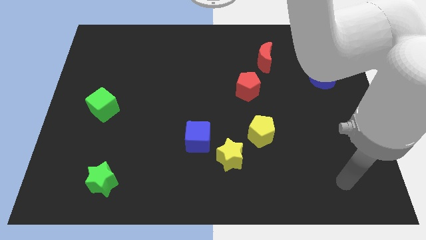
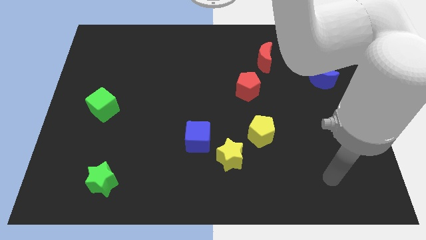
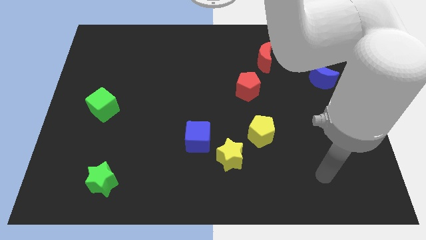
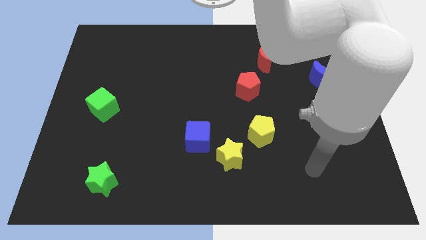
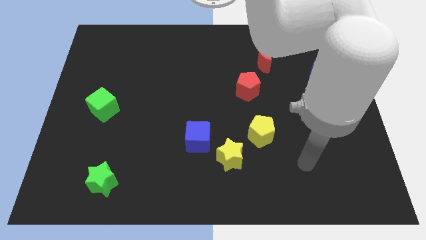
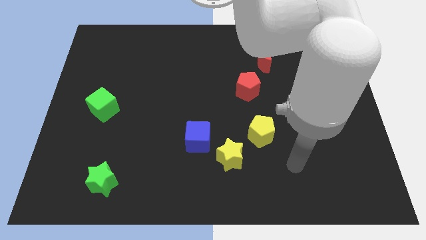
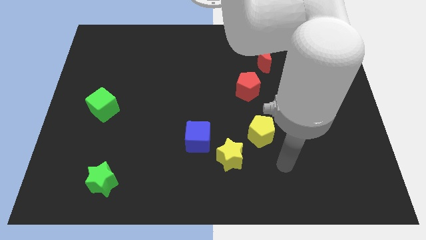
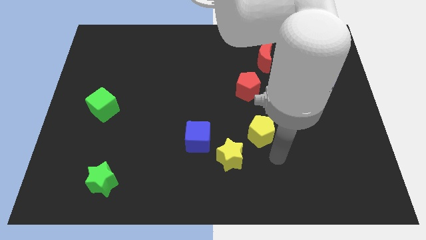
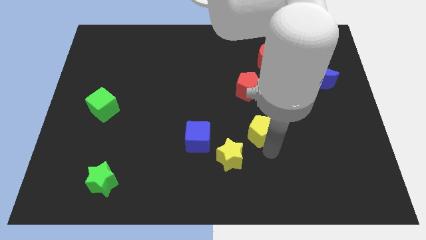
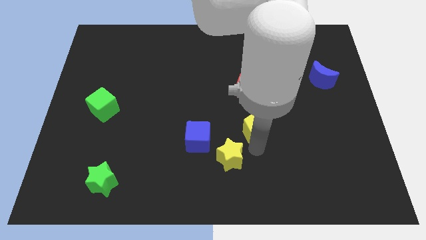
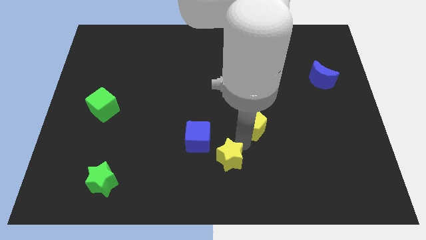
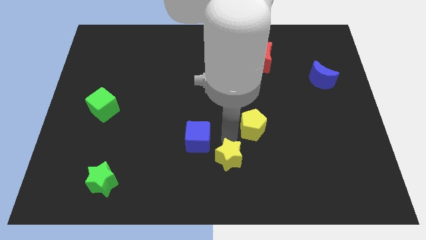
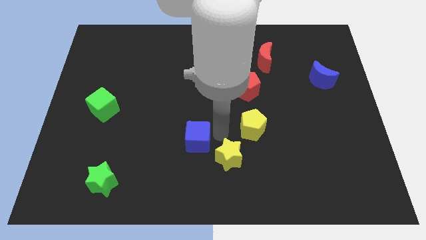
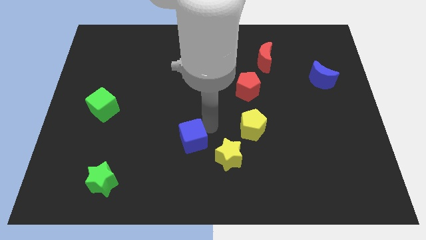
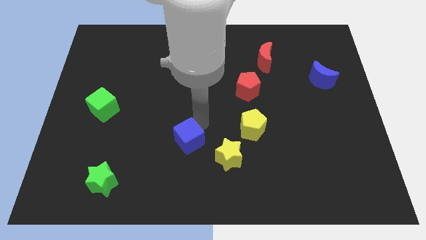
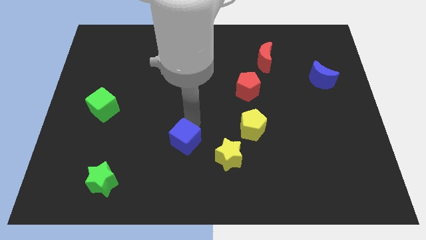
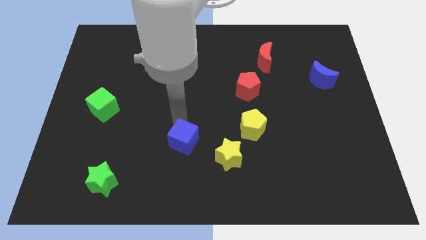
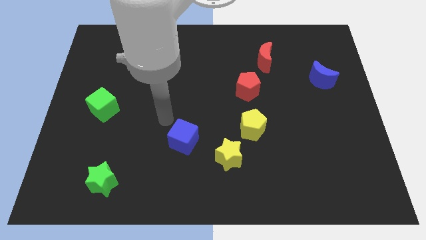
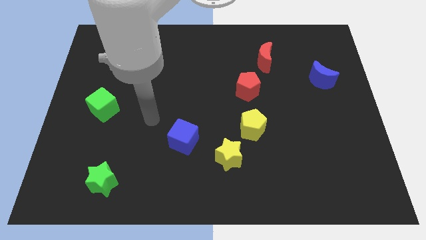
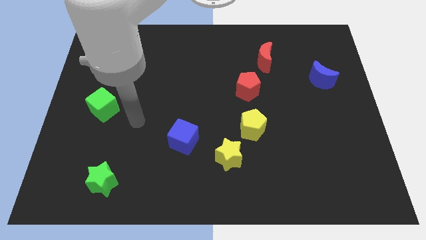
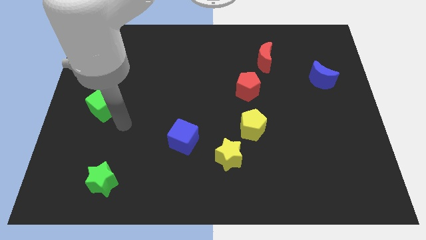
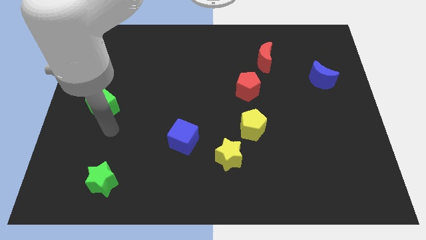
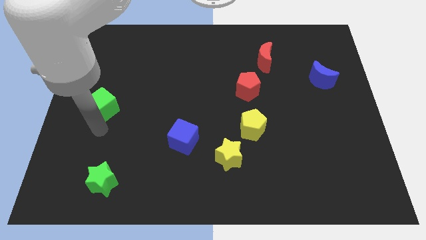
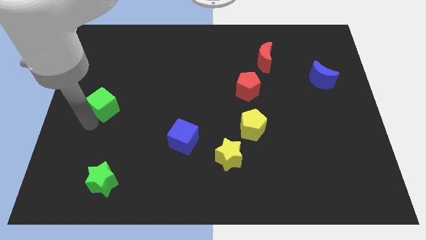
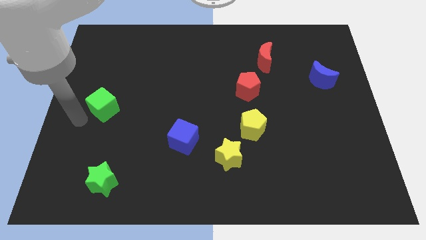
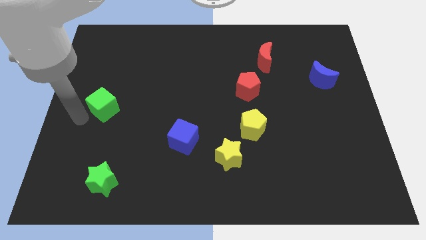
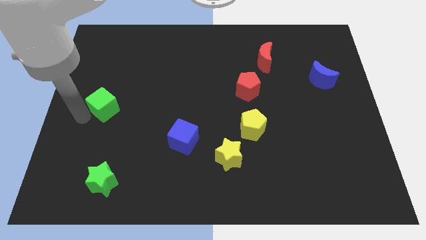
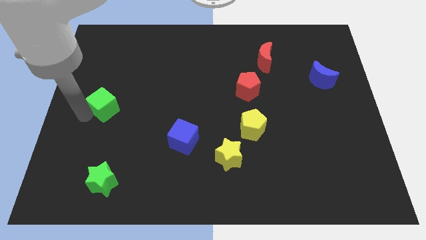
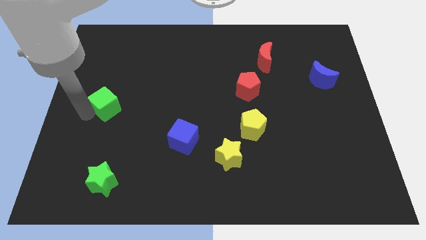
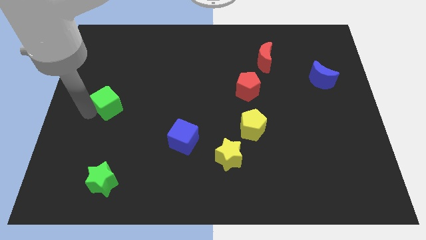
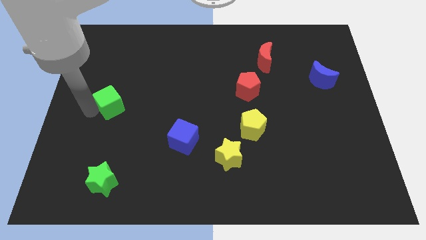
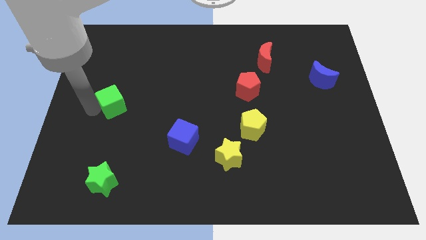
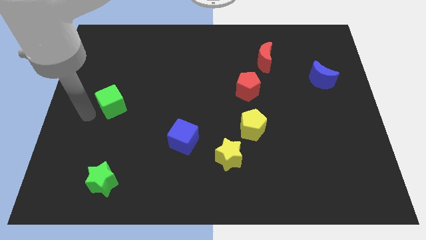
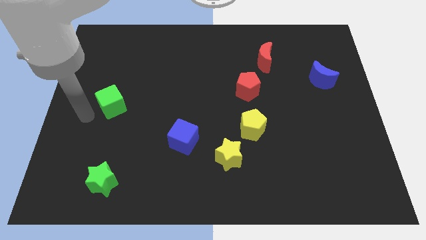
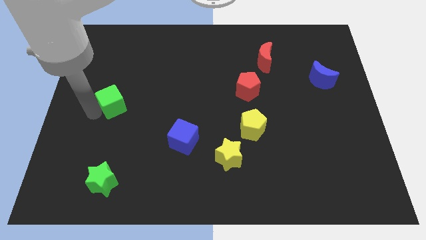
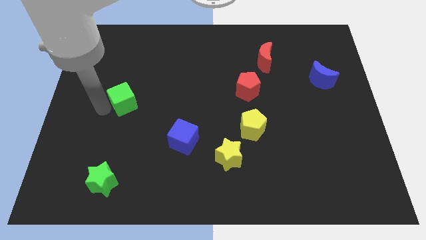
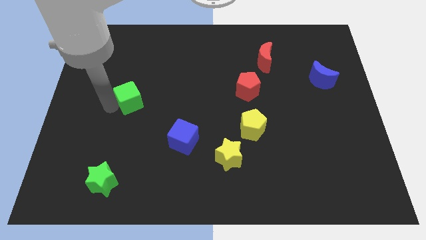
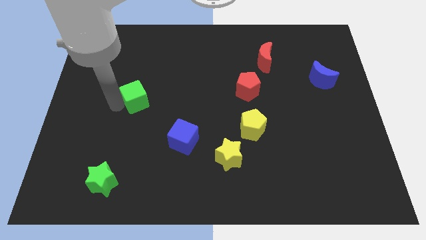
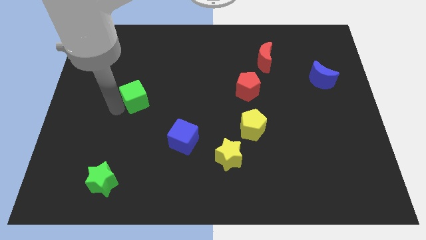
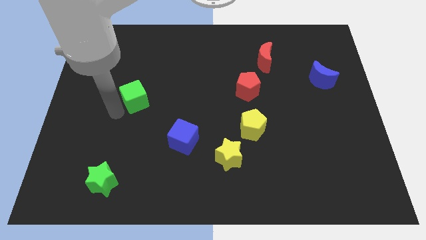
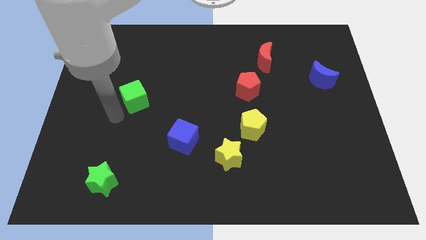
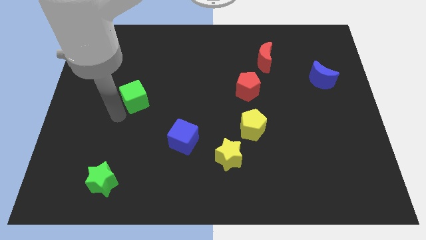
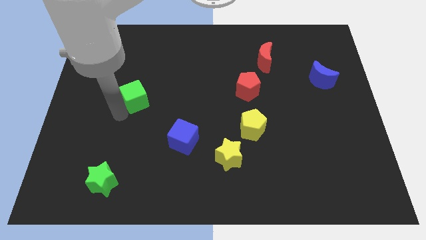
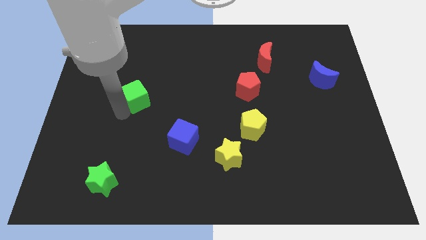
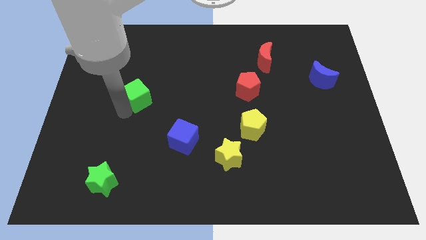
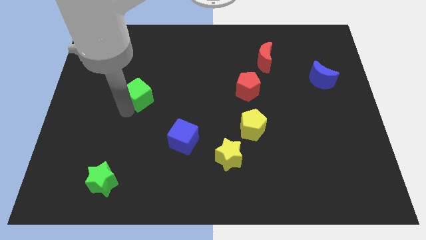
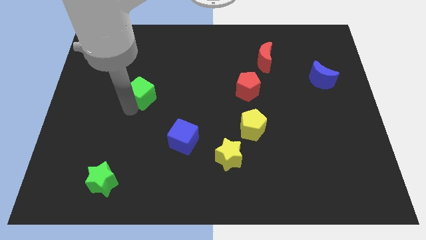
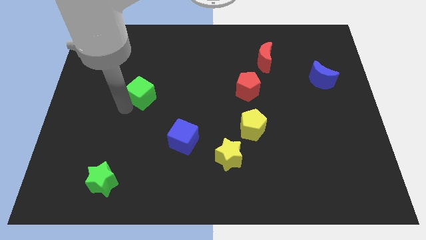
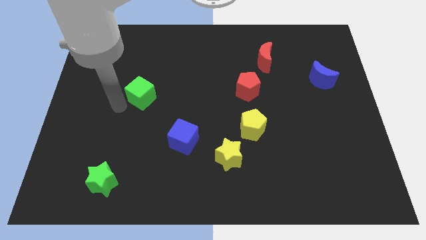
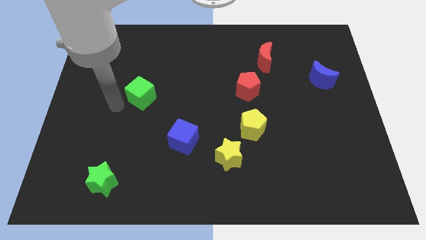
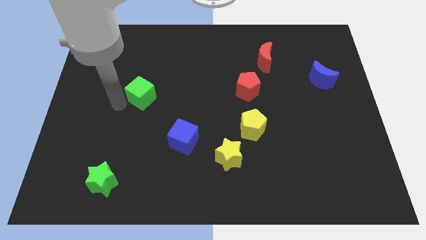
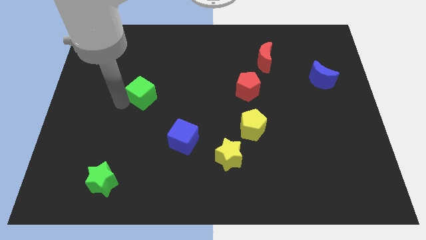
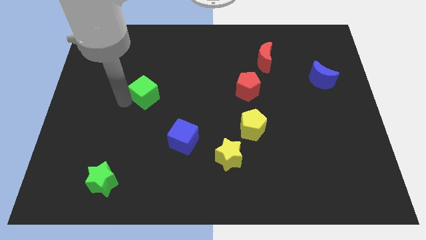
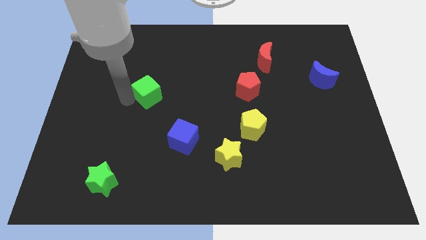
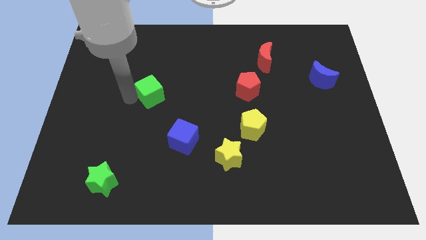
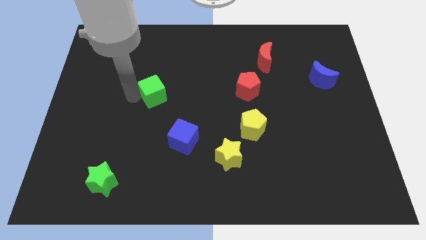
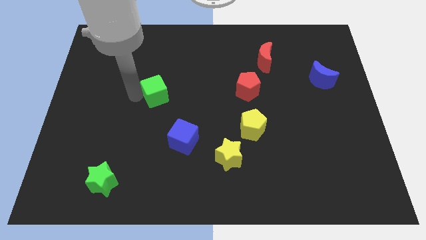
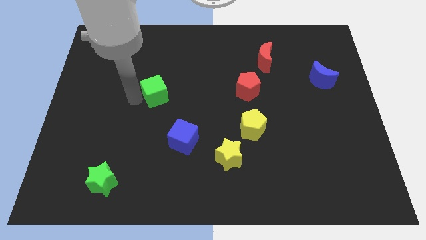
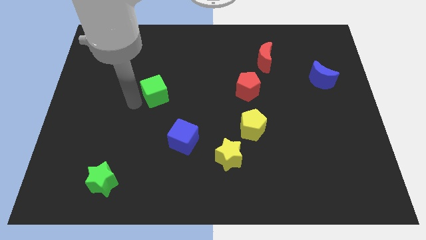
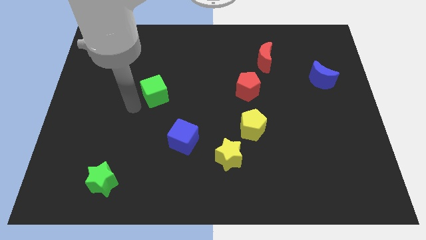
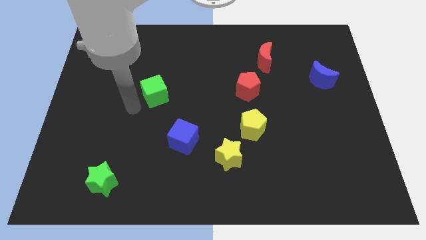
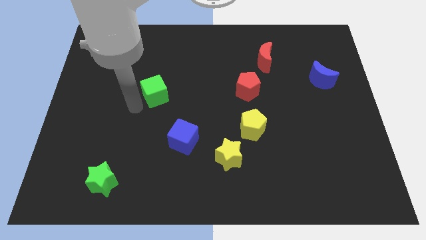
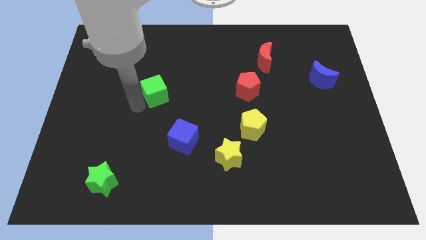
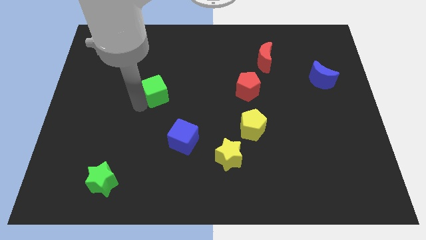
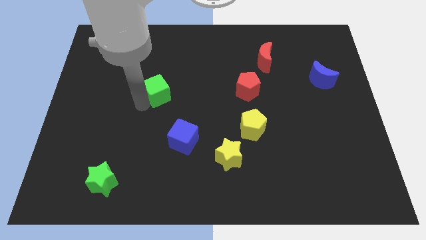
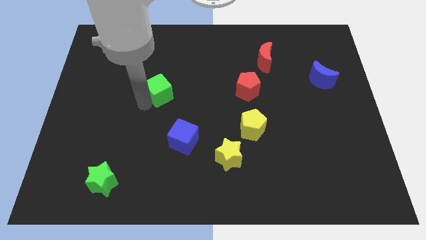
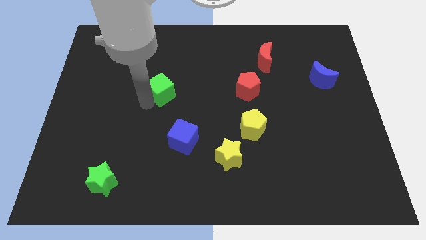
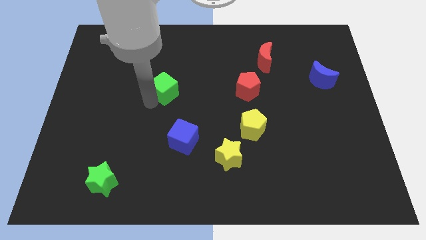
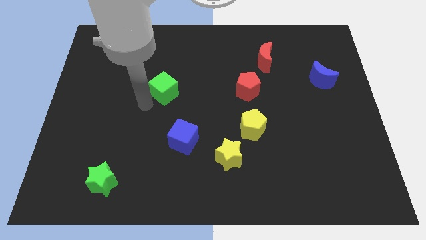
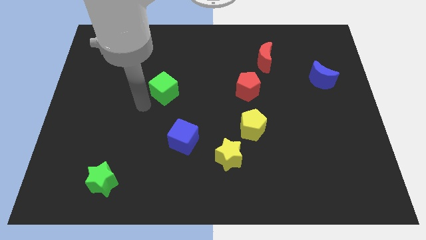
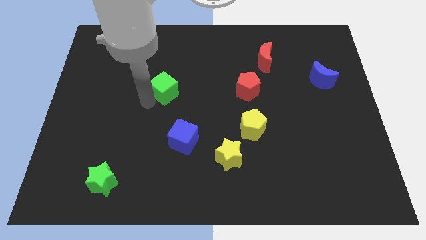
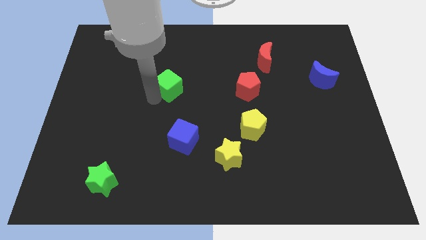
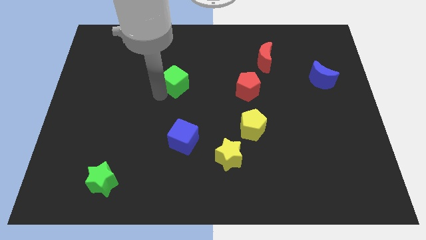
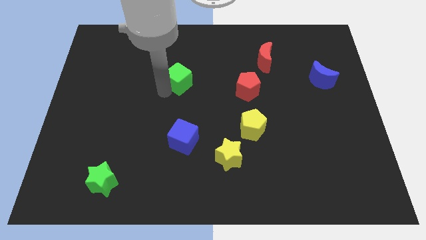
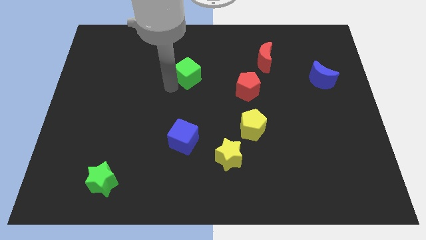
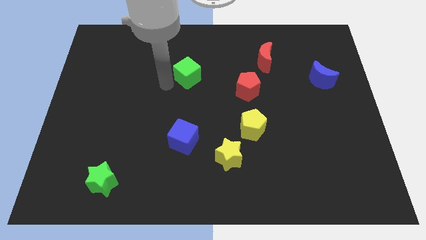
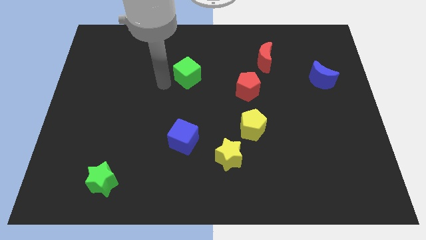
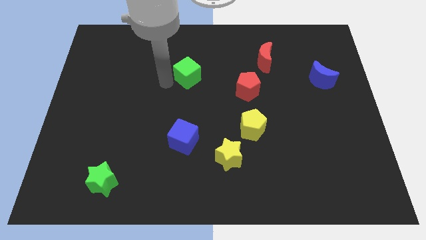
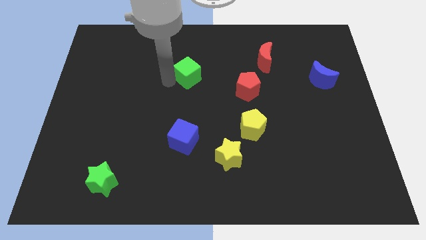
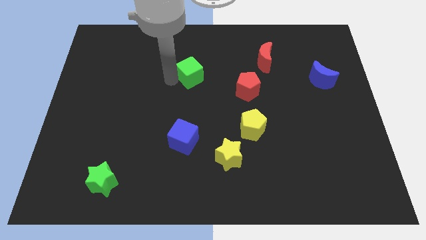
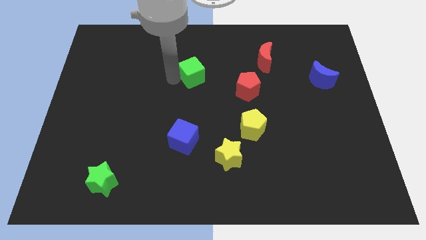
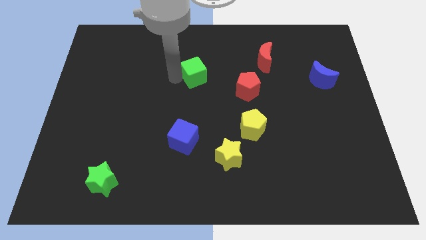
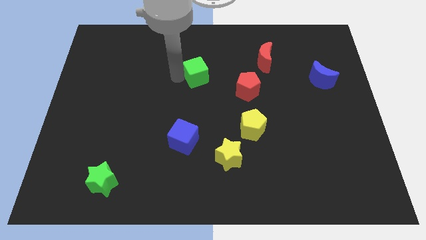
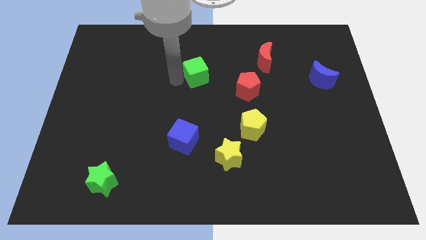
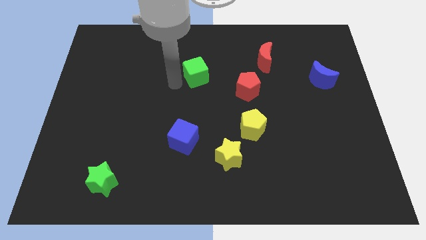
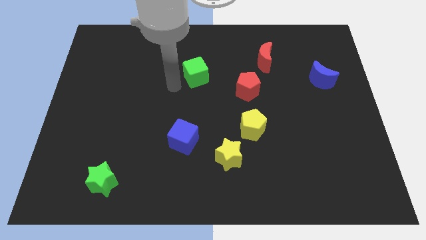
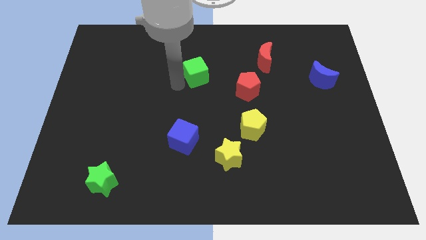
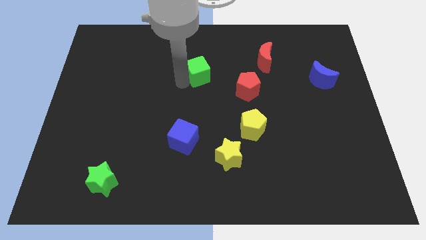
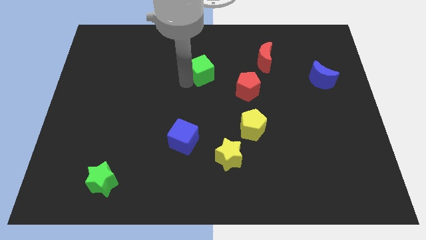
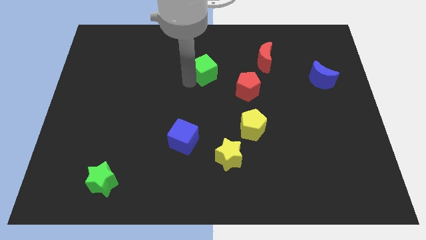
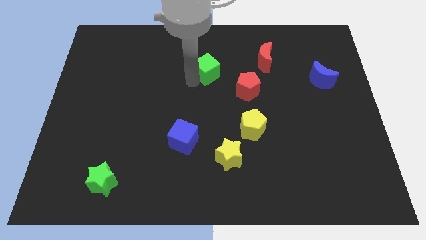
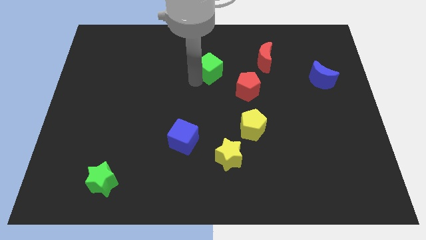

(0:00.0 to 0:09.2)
move the green cube to the left of the red moon
